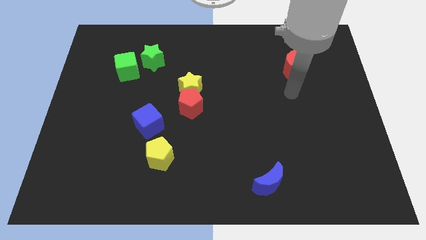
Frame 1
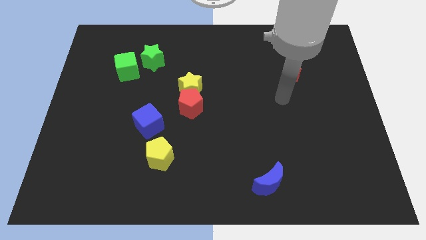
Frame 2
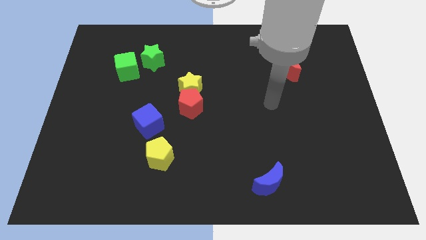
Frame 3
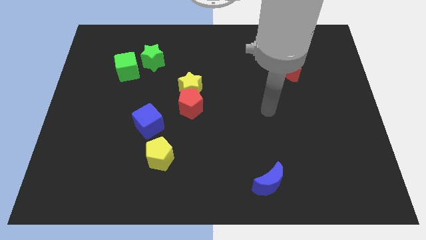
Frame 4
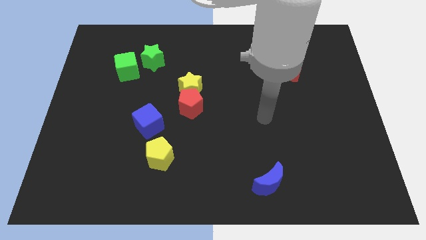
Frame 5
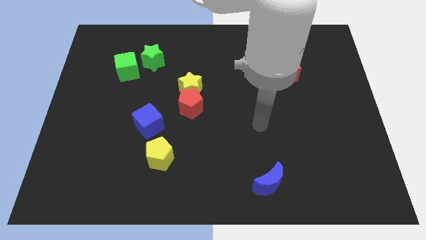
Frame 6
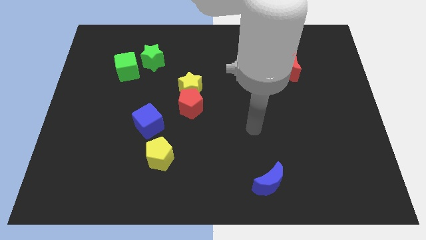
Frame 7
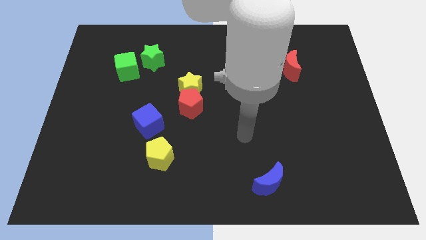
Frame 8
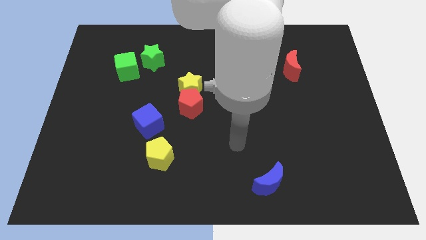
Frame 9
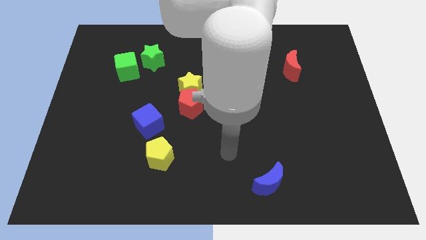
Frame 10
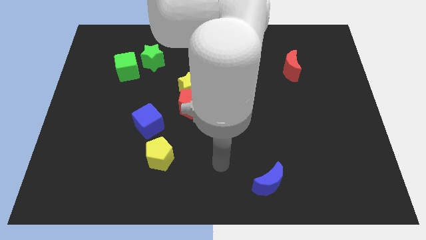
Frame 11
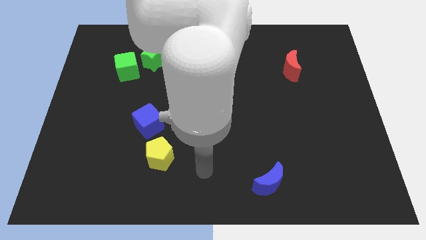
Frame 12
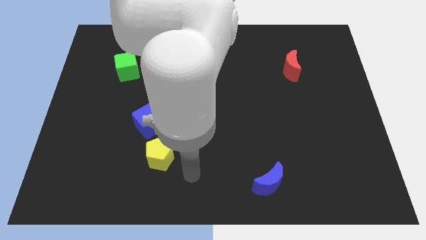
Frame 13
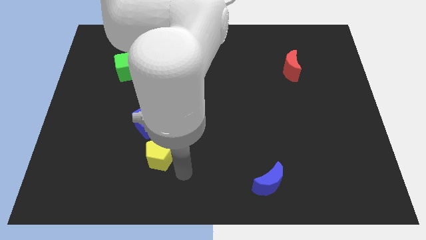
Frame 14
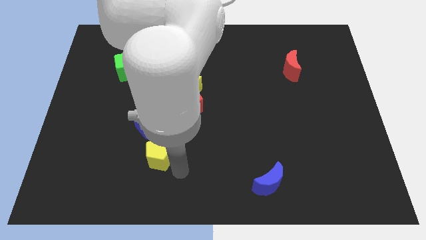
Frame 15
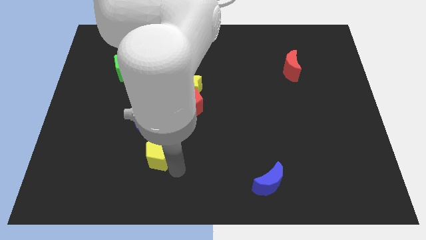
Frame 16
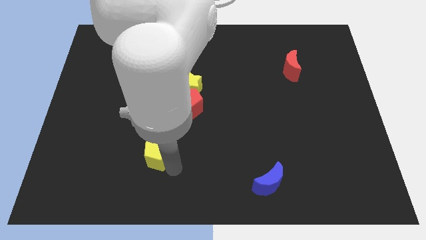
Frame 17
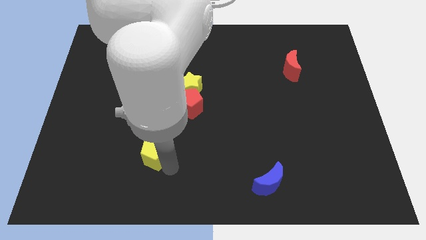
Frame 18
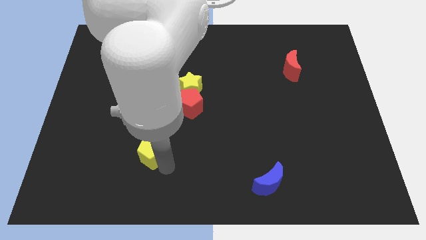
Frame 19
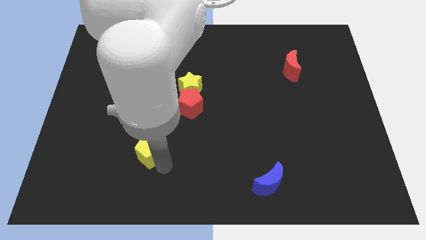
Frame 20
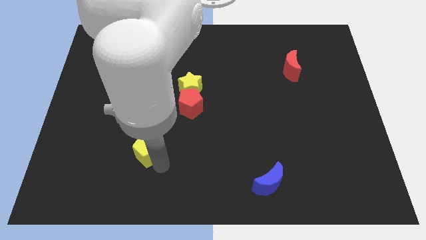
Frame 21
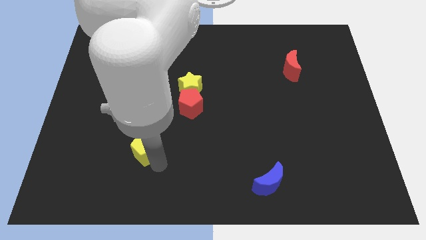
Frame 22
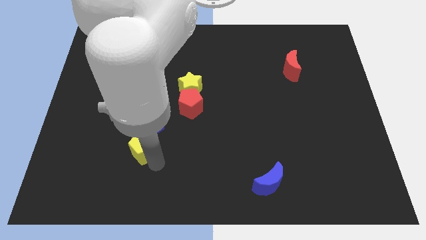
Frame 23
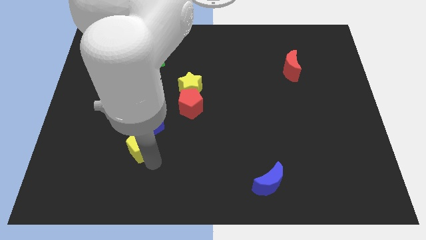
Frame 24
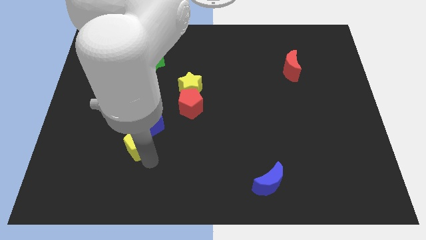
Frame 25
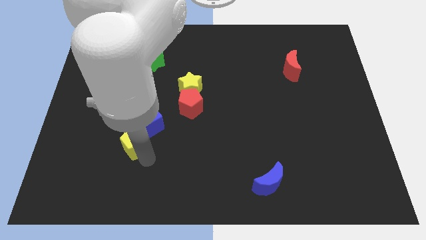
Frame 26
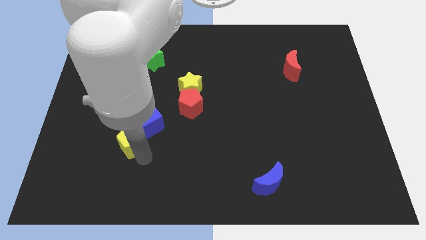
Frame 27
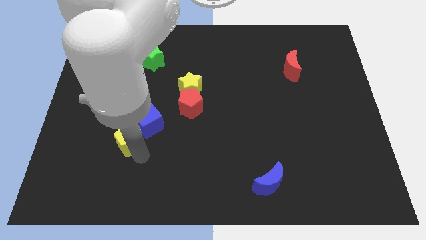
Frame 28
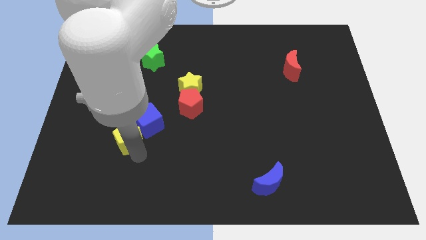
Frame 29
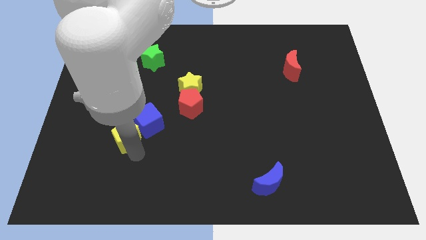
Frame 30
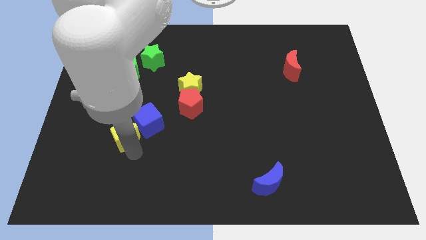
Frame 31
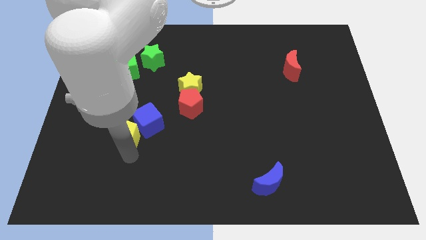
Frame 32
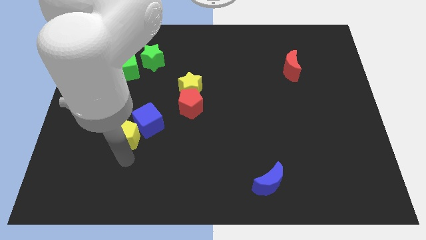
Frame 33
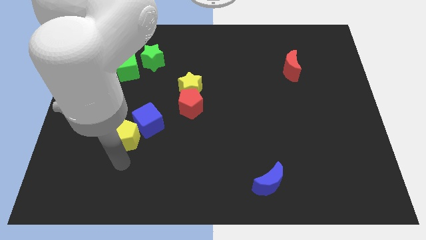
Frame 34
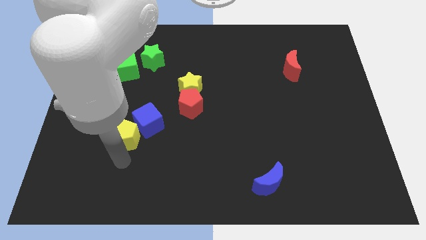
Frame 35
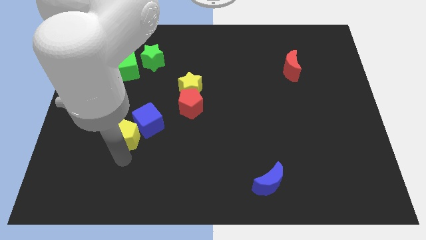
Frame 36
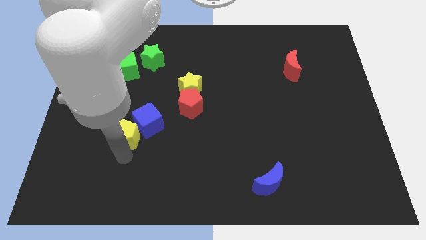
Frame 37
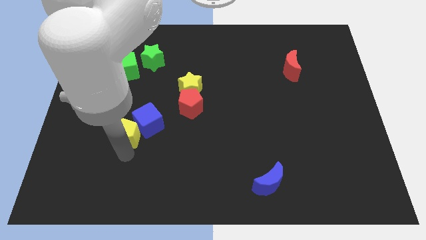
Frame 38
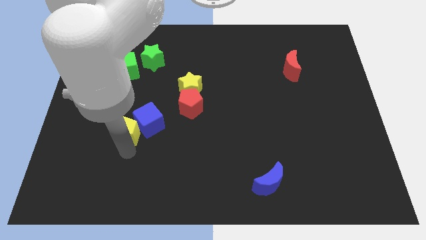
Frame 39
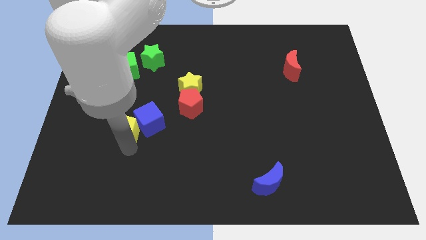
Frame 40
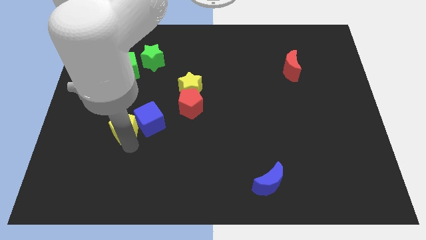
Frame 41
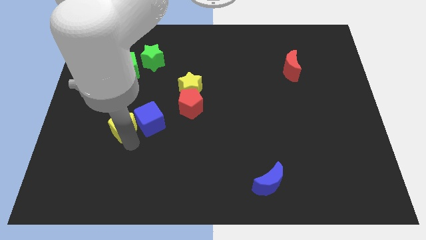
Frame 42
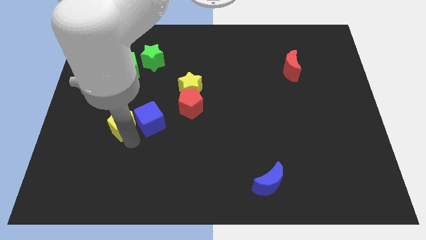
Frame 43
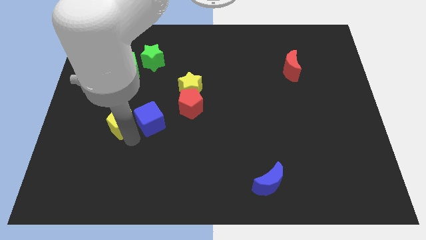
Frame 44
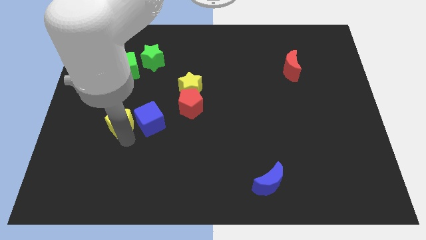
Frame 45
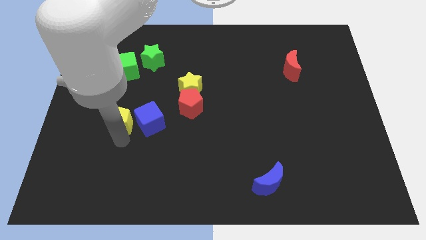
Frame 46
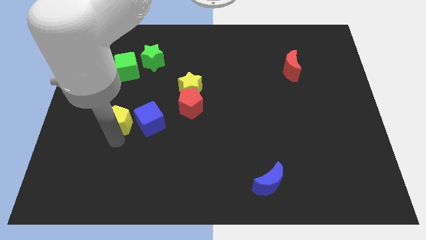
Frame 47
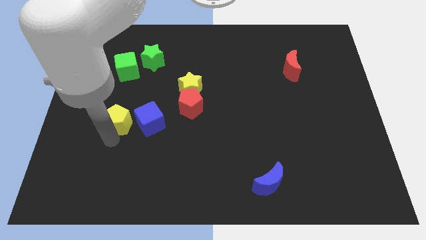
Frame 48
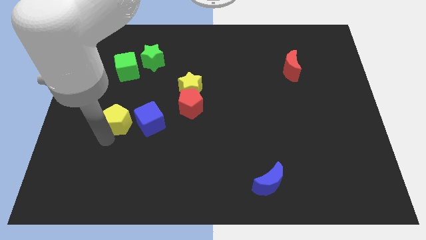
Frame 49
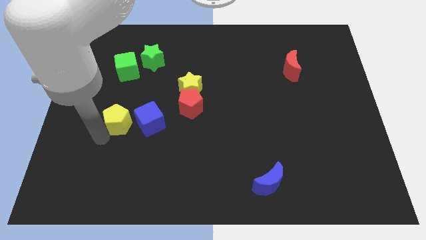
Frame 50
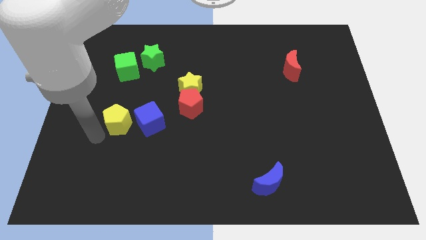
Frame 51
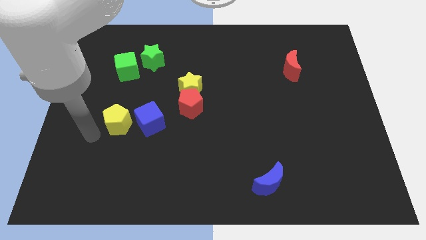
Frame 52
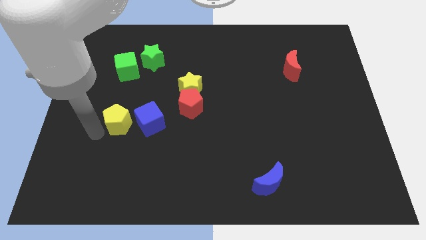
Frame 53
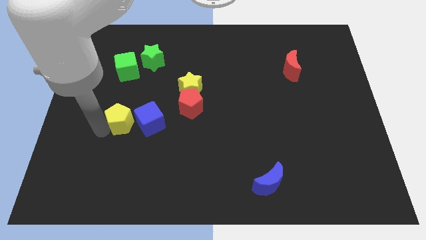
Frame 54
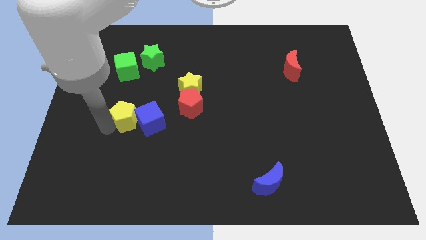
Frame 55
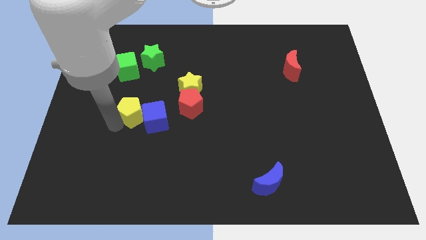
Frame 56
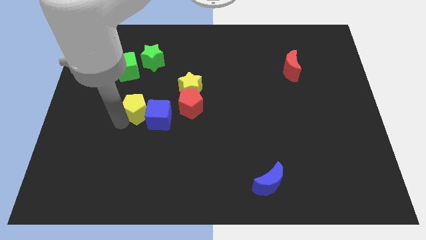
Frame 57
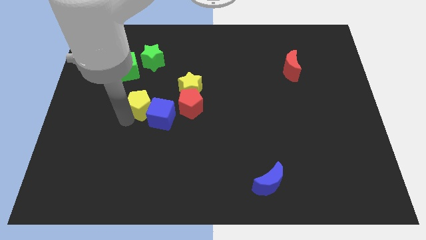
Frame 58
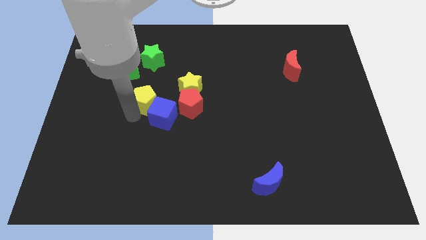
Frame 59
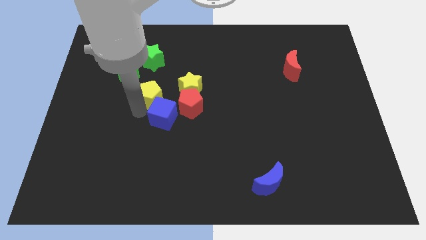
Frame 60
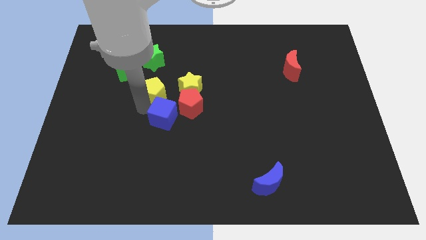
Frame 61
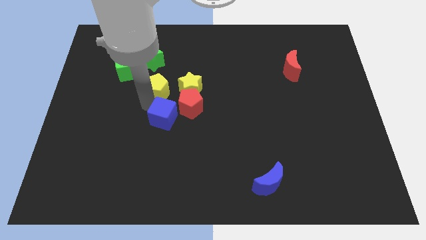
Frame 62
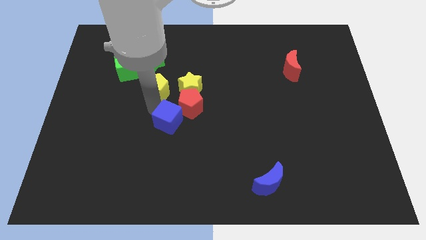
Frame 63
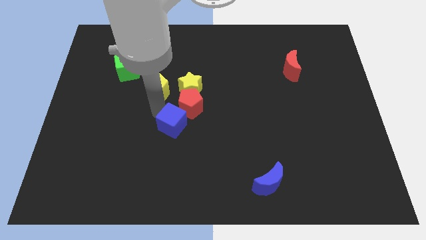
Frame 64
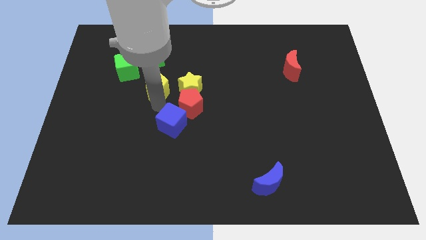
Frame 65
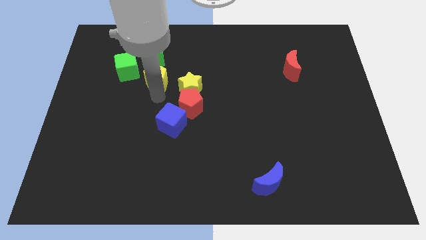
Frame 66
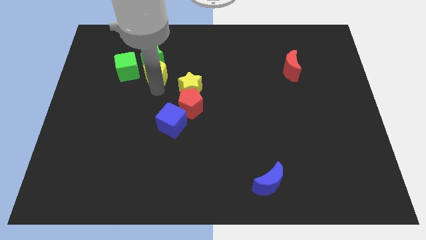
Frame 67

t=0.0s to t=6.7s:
move the yellow pentagon to the green star

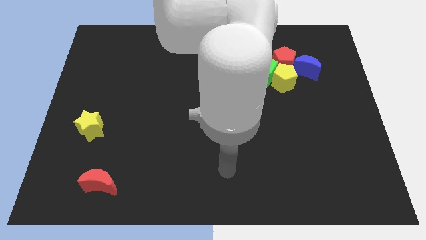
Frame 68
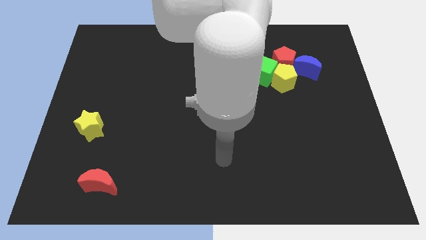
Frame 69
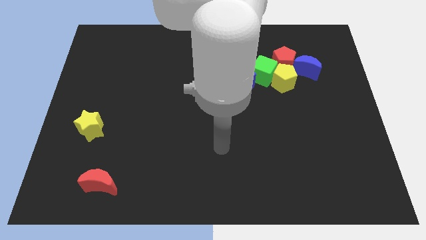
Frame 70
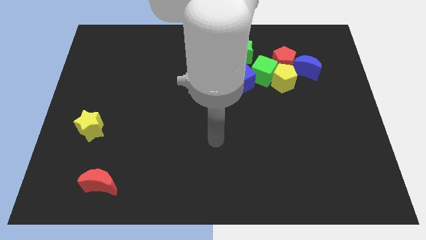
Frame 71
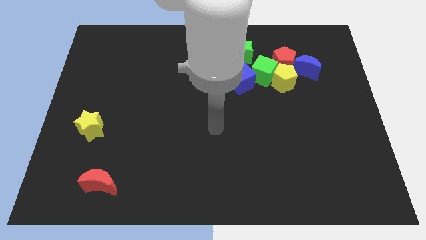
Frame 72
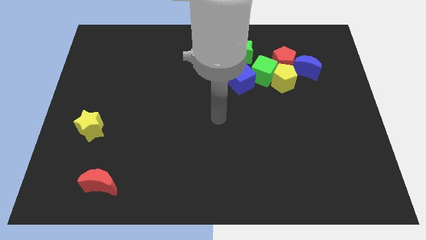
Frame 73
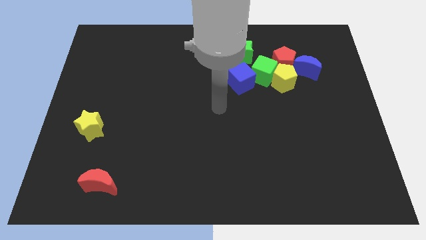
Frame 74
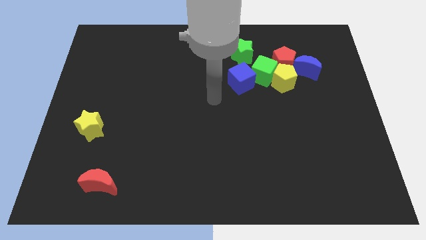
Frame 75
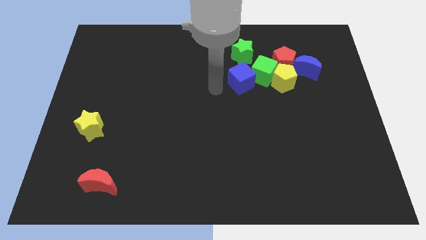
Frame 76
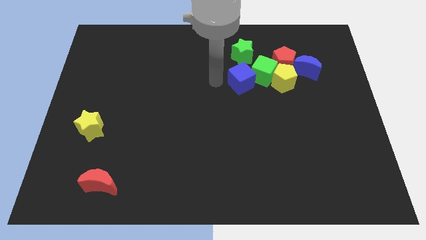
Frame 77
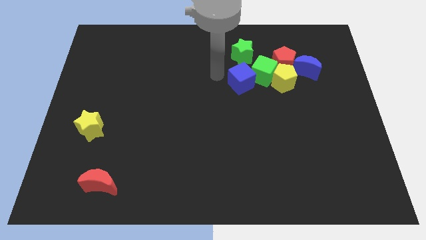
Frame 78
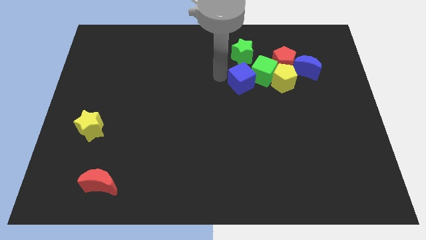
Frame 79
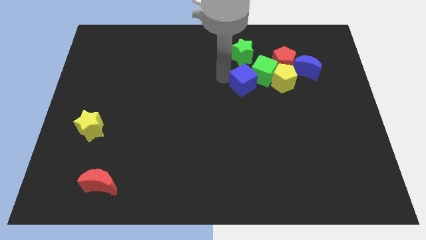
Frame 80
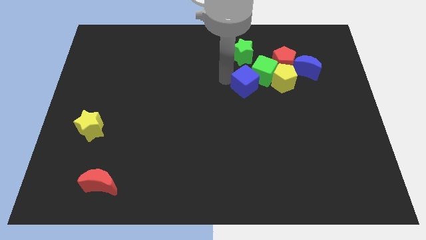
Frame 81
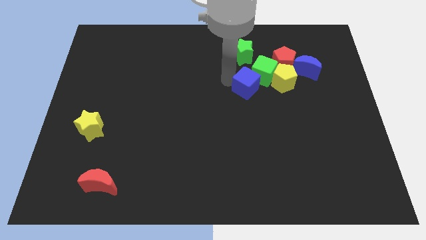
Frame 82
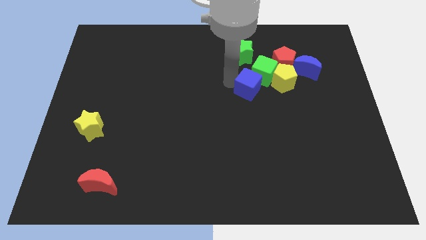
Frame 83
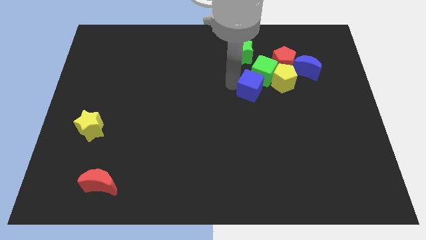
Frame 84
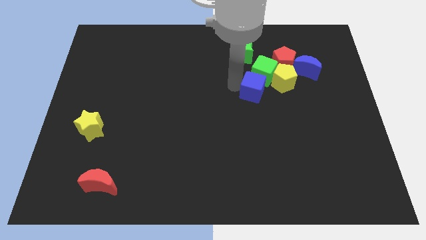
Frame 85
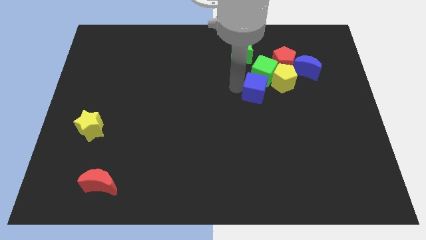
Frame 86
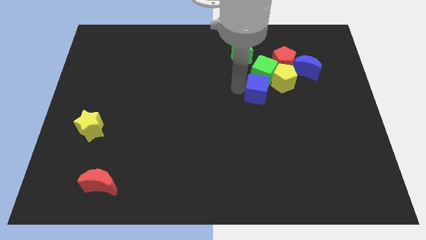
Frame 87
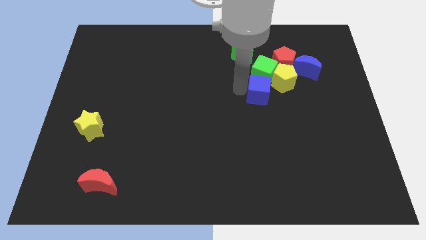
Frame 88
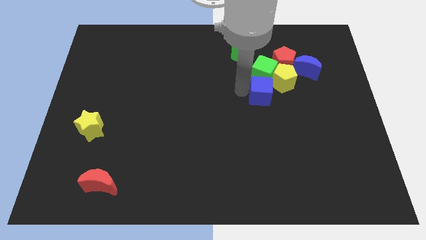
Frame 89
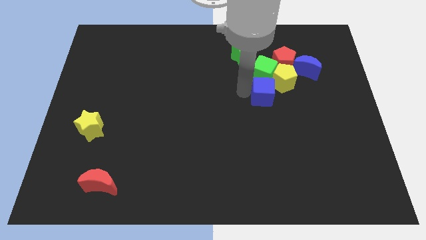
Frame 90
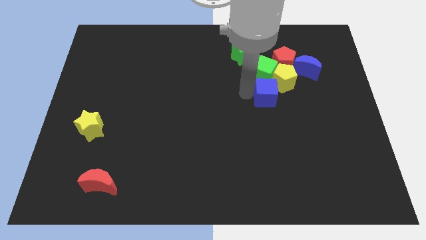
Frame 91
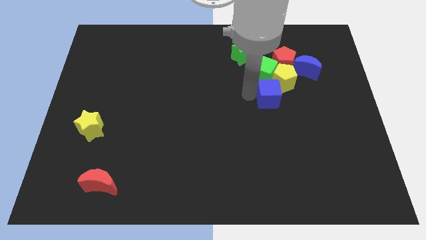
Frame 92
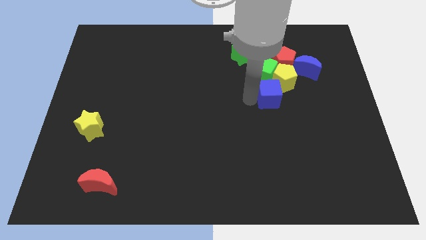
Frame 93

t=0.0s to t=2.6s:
slide the blue cube towards the yellow pentagon
